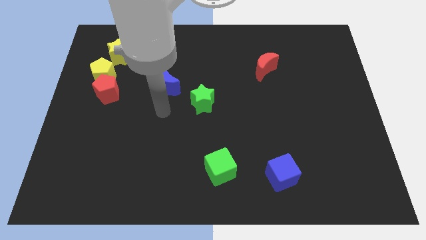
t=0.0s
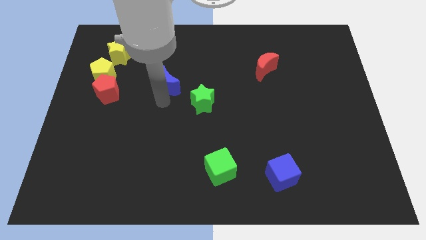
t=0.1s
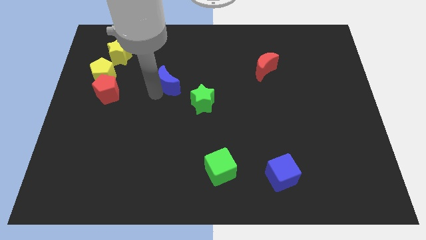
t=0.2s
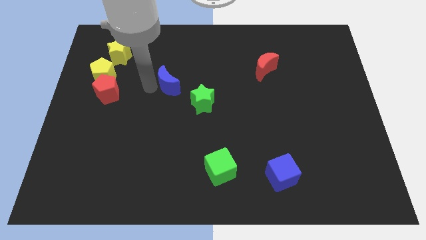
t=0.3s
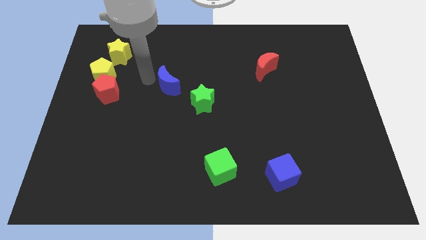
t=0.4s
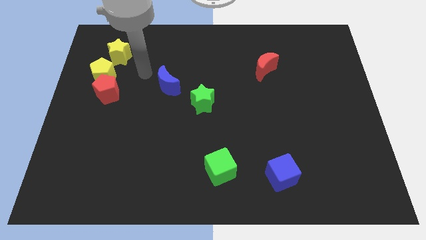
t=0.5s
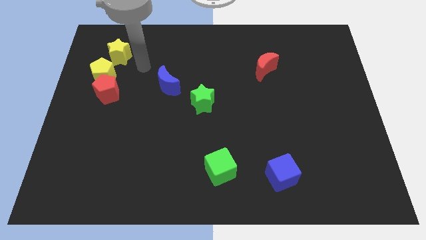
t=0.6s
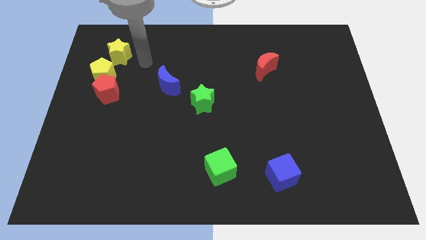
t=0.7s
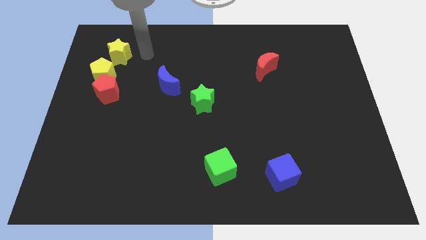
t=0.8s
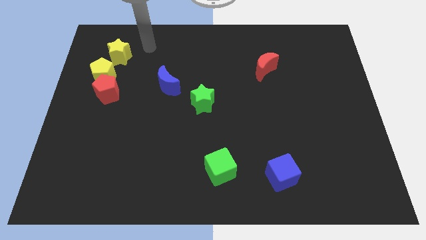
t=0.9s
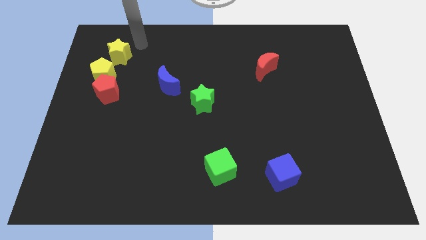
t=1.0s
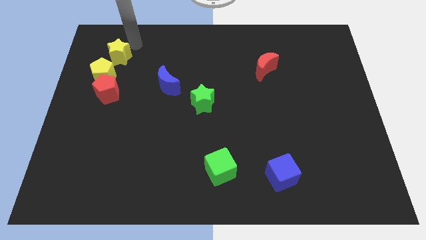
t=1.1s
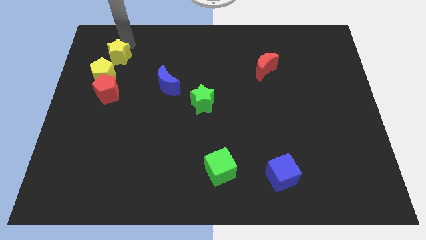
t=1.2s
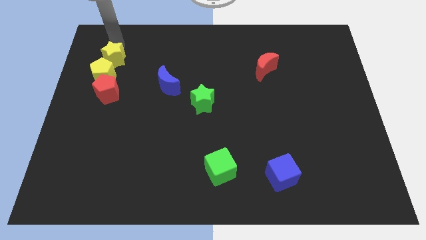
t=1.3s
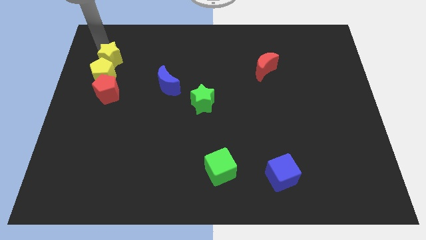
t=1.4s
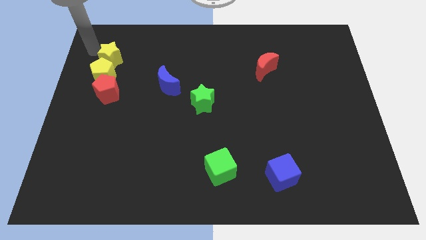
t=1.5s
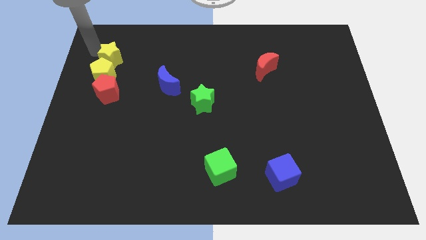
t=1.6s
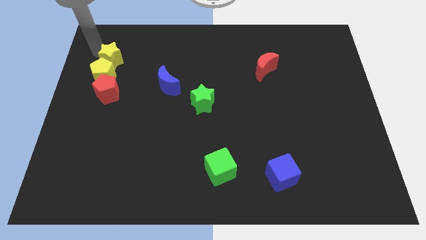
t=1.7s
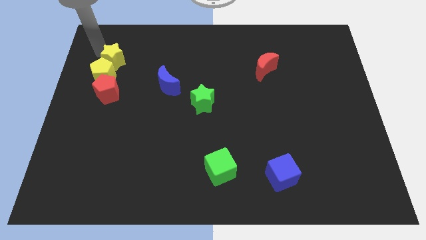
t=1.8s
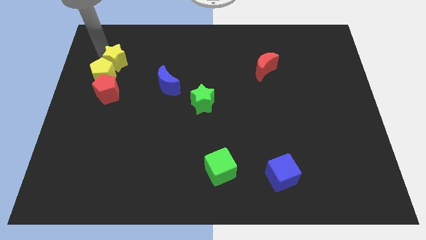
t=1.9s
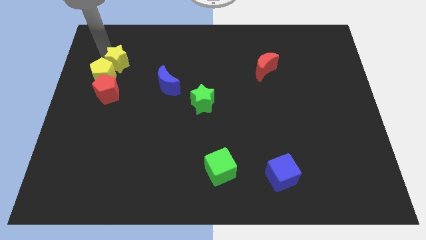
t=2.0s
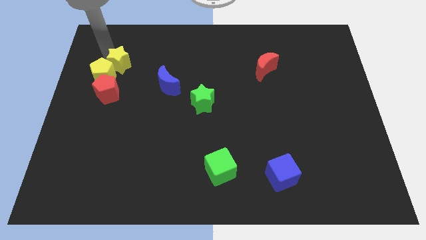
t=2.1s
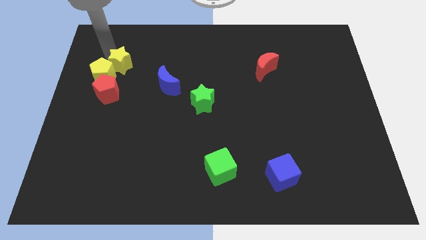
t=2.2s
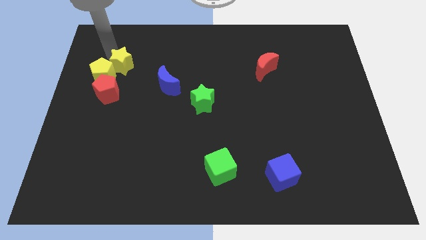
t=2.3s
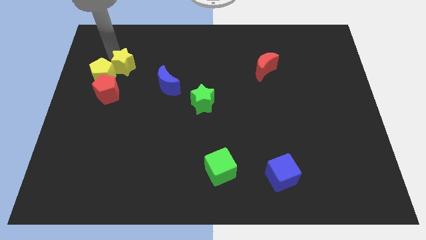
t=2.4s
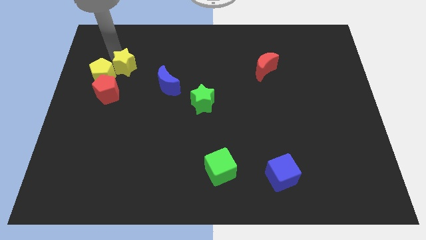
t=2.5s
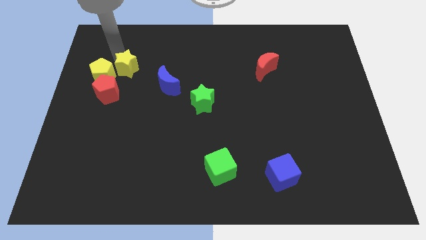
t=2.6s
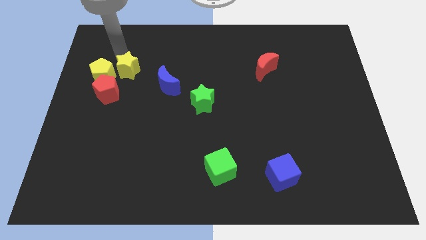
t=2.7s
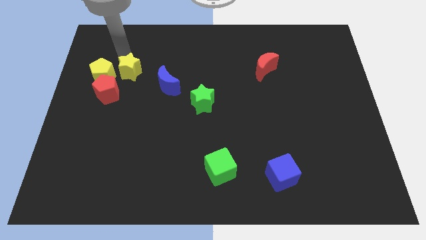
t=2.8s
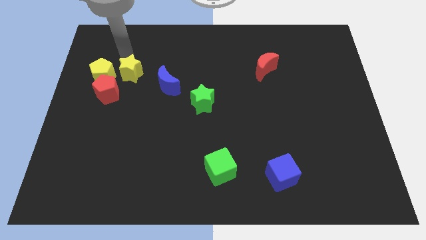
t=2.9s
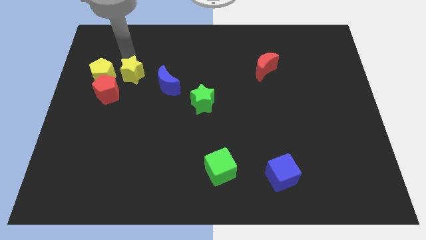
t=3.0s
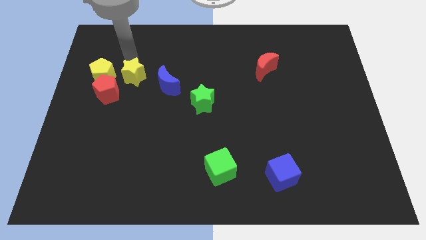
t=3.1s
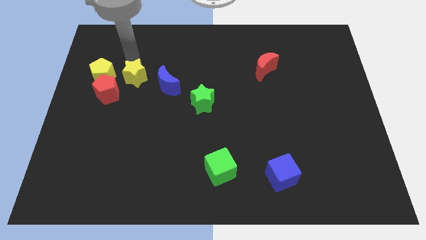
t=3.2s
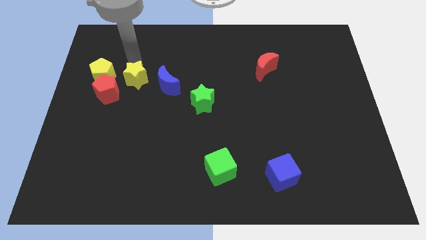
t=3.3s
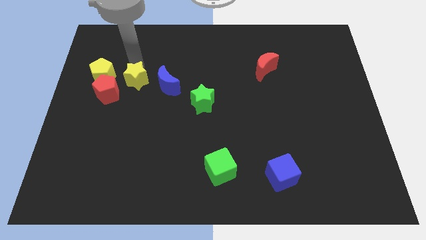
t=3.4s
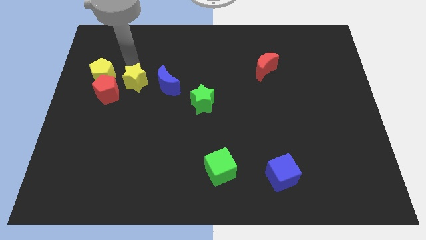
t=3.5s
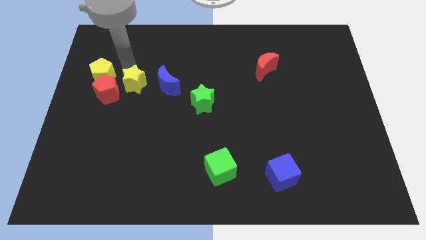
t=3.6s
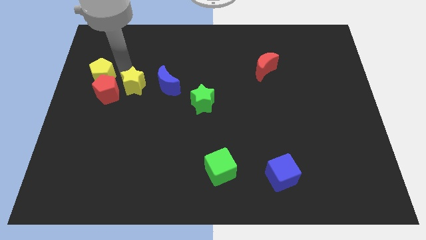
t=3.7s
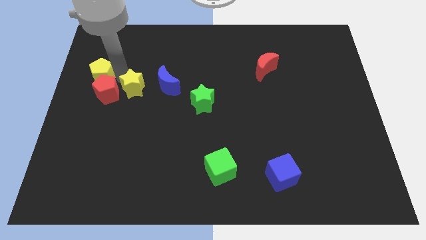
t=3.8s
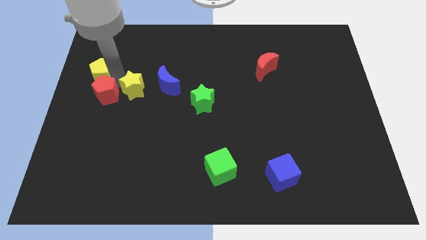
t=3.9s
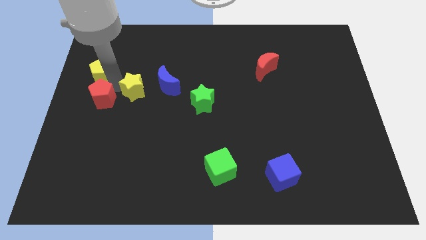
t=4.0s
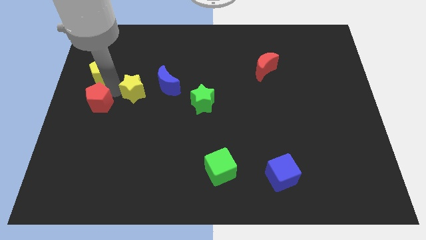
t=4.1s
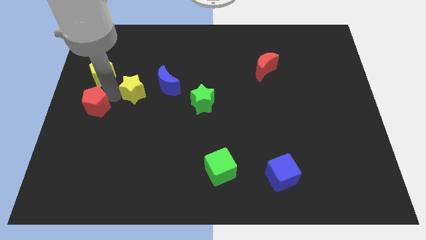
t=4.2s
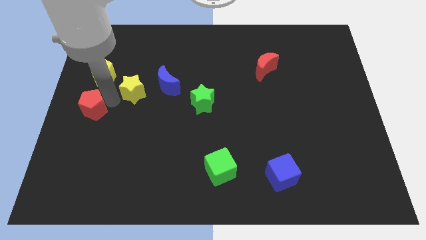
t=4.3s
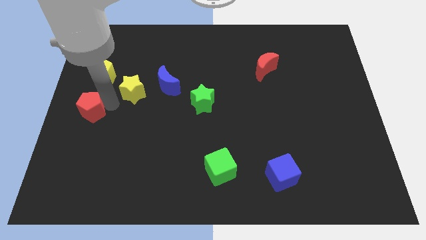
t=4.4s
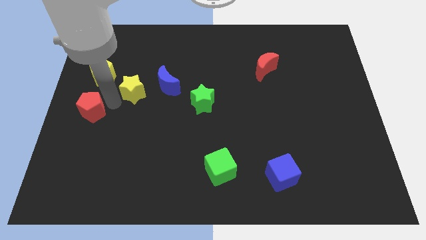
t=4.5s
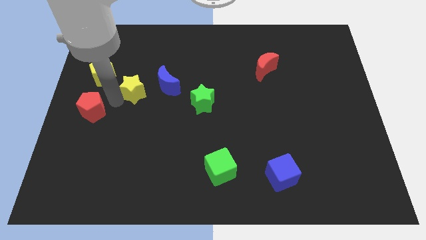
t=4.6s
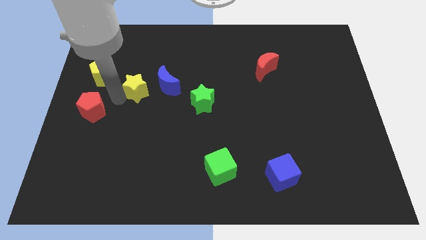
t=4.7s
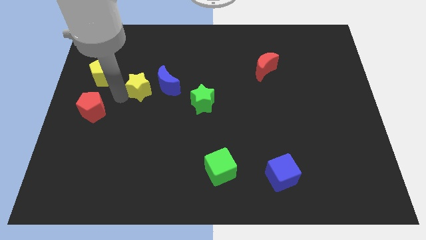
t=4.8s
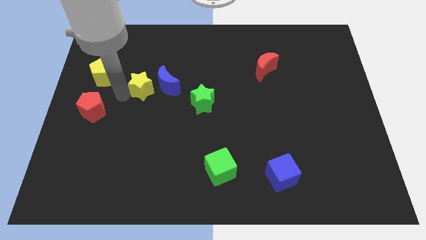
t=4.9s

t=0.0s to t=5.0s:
put the yellow star next to the blue moon

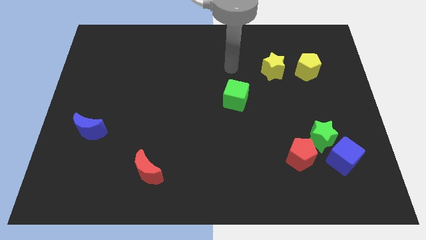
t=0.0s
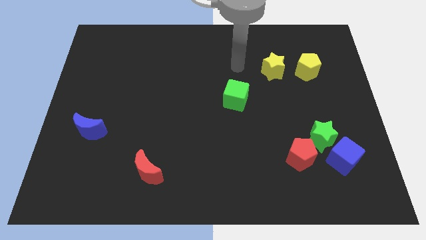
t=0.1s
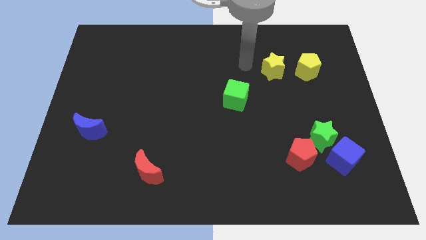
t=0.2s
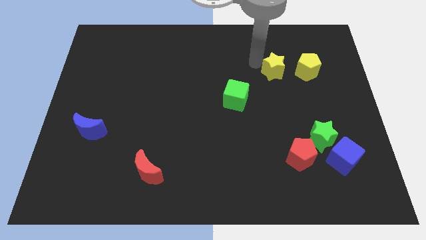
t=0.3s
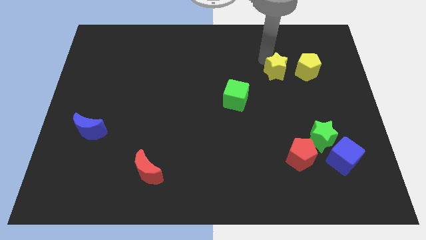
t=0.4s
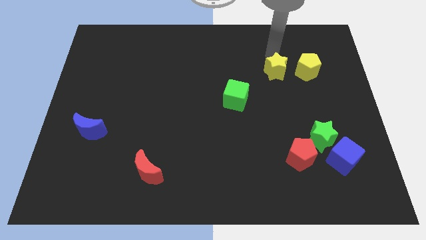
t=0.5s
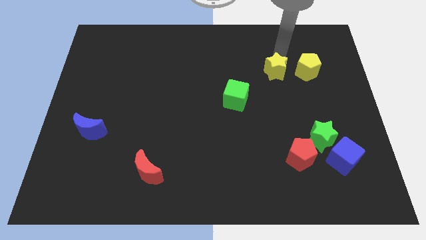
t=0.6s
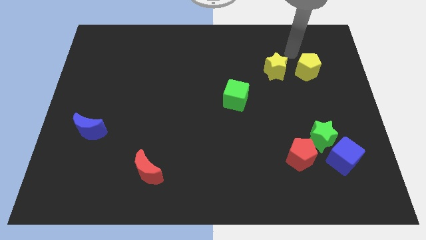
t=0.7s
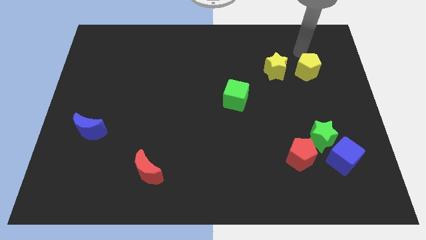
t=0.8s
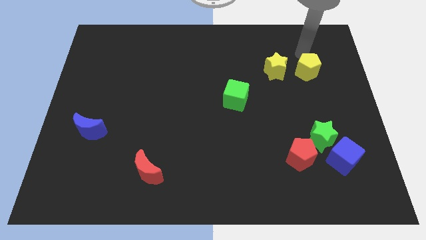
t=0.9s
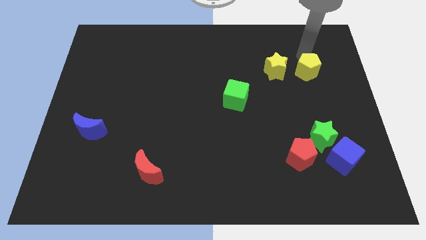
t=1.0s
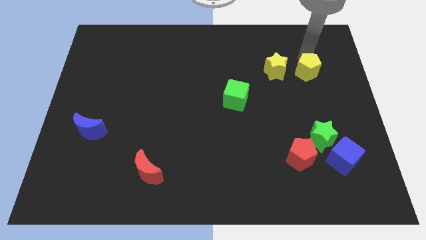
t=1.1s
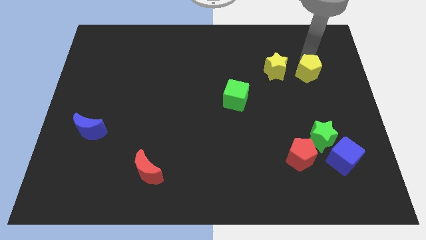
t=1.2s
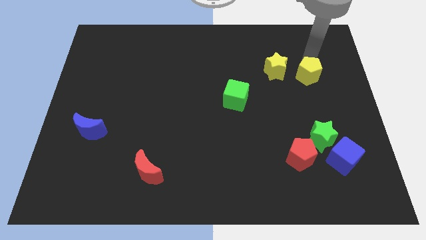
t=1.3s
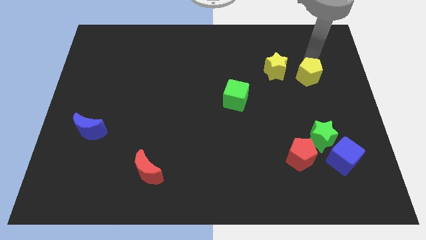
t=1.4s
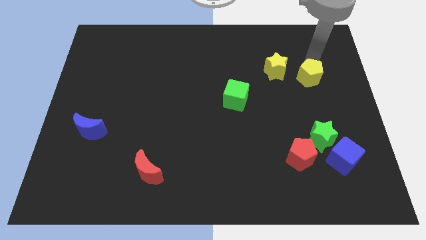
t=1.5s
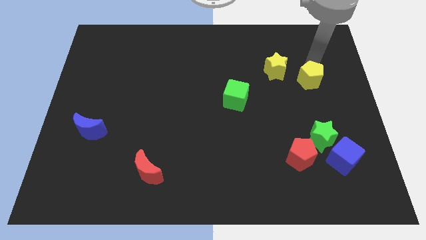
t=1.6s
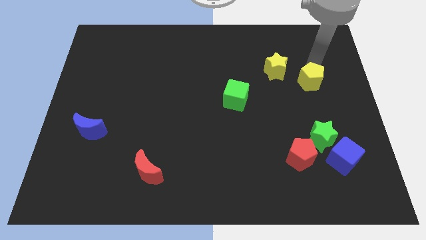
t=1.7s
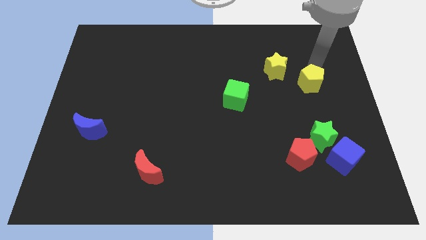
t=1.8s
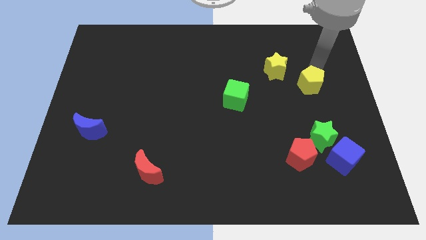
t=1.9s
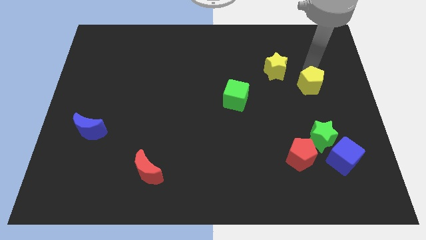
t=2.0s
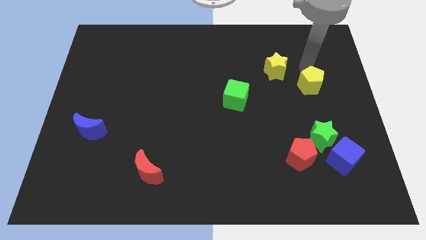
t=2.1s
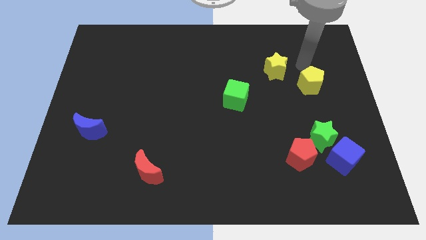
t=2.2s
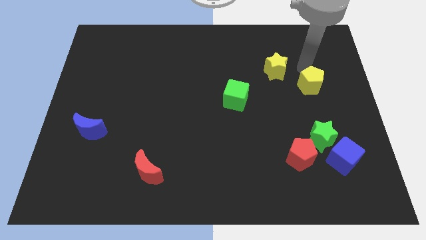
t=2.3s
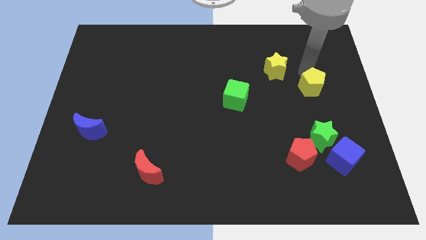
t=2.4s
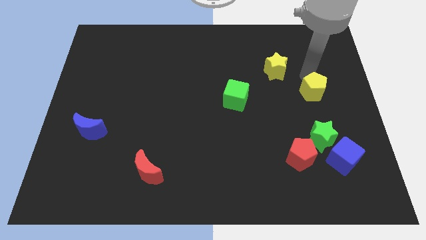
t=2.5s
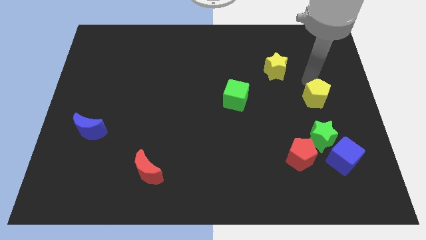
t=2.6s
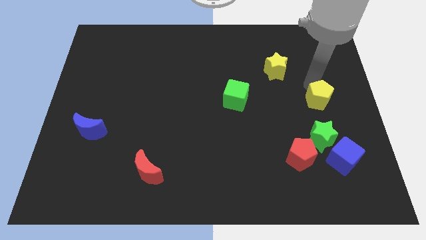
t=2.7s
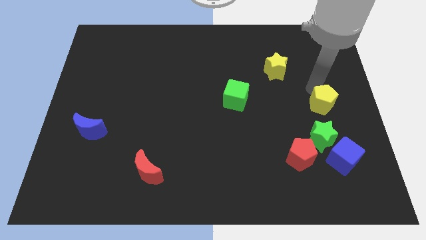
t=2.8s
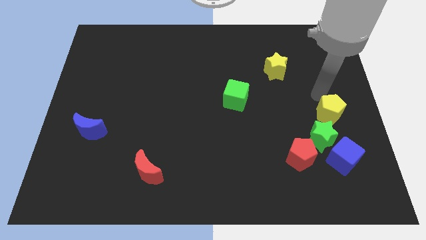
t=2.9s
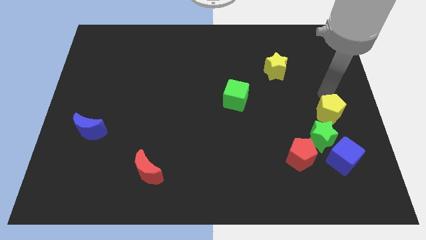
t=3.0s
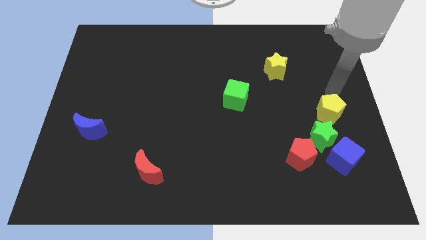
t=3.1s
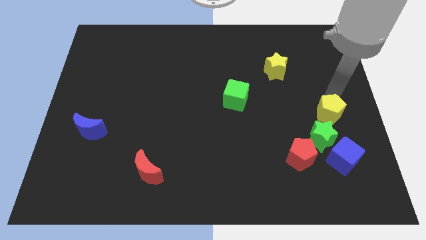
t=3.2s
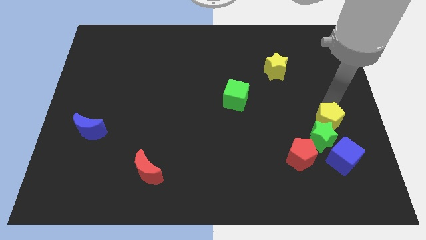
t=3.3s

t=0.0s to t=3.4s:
push the yellow pentagon close to the green star

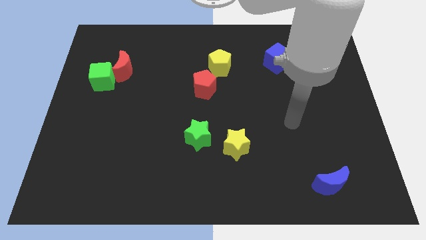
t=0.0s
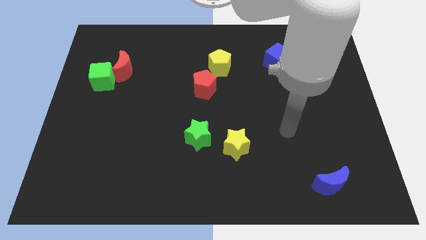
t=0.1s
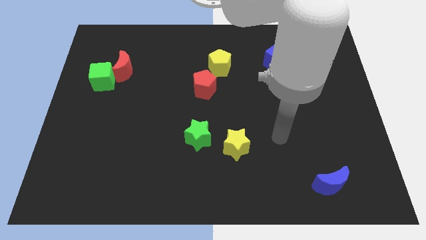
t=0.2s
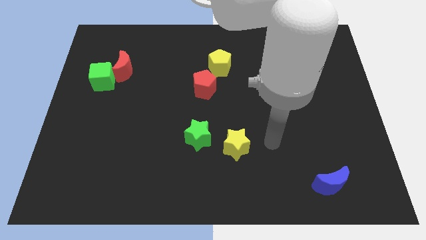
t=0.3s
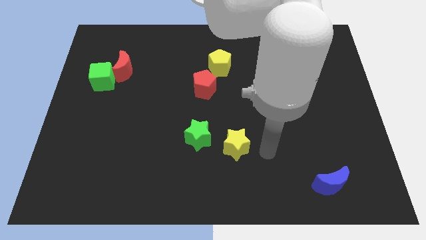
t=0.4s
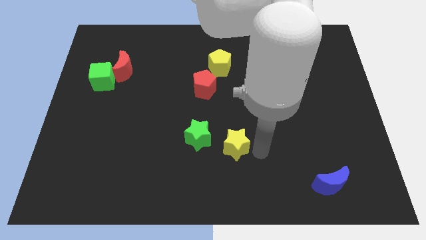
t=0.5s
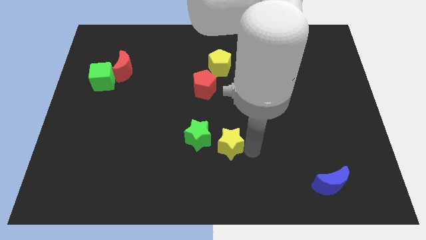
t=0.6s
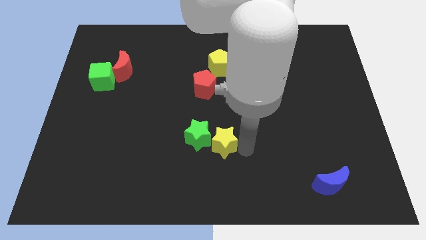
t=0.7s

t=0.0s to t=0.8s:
put the yellow star close to the green star
